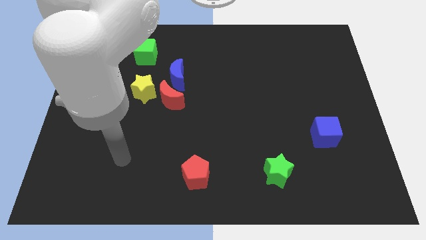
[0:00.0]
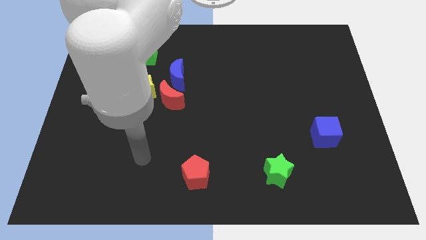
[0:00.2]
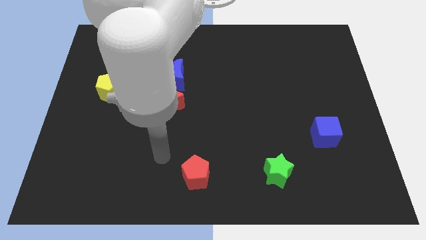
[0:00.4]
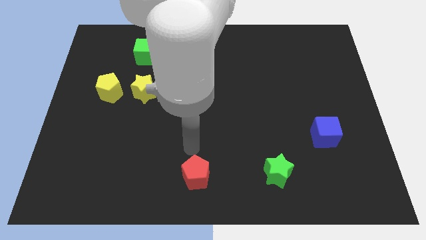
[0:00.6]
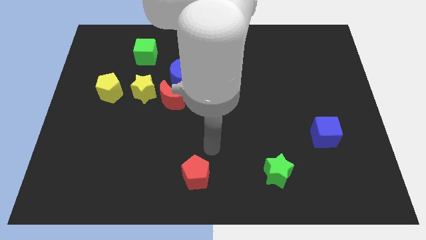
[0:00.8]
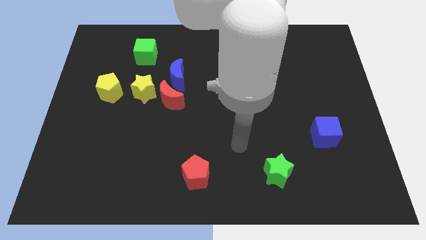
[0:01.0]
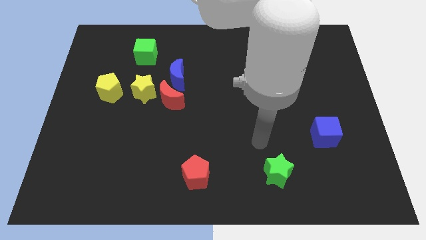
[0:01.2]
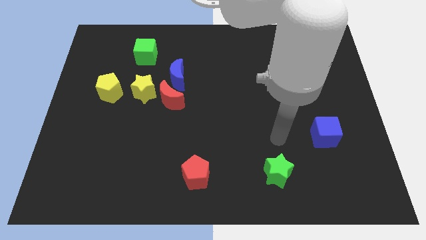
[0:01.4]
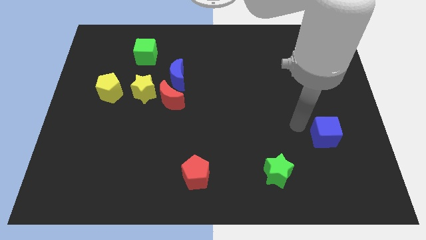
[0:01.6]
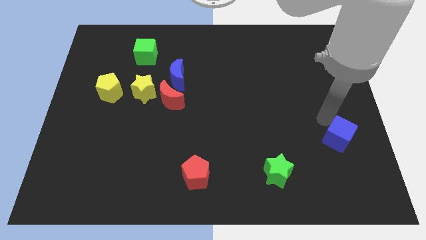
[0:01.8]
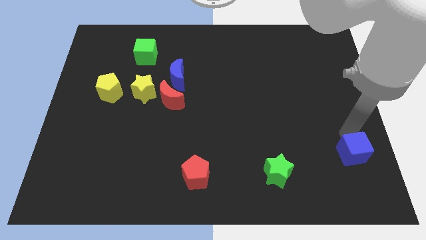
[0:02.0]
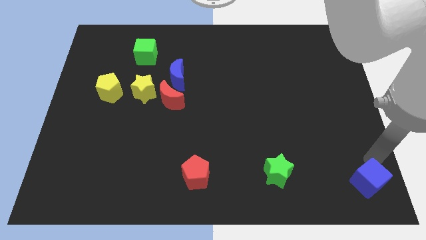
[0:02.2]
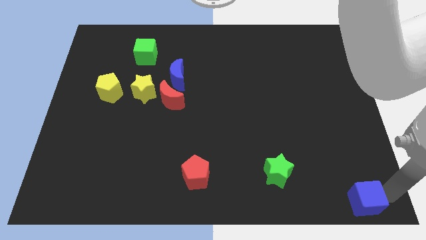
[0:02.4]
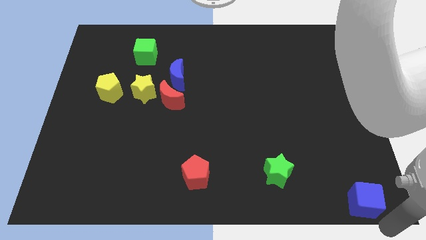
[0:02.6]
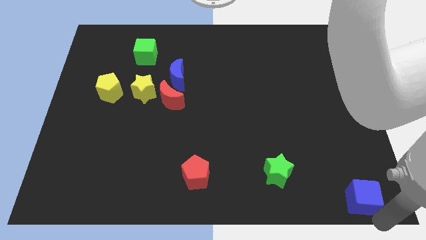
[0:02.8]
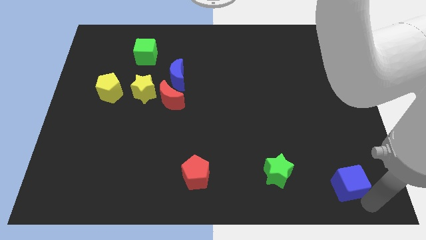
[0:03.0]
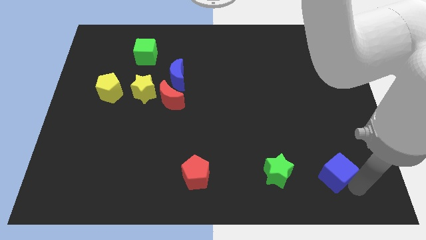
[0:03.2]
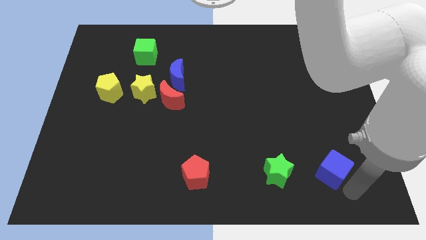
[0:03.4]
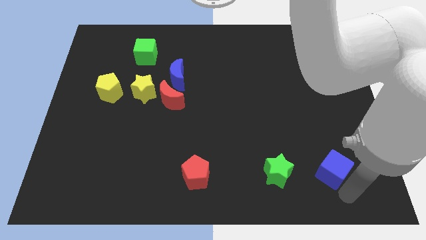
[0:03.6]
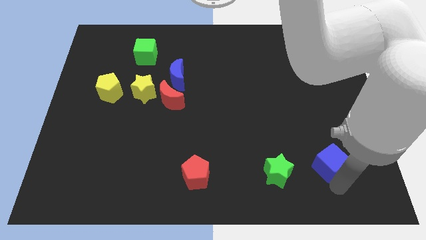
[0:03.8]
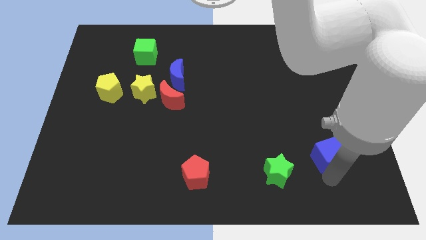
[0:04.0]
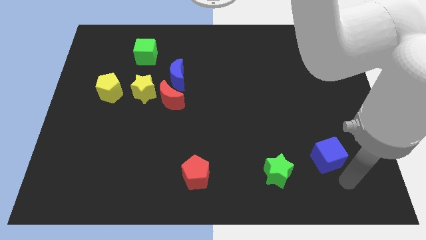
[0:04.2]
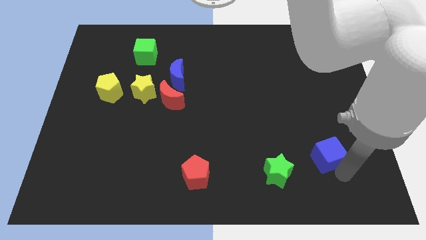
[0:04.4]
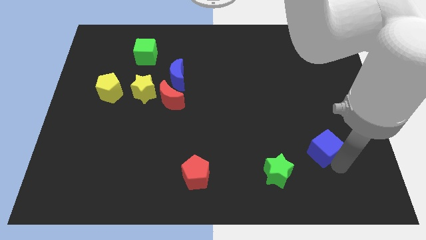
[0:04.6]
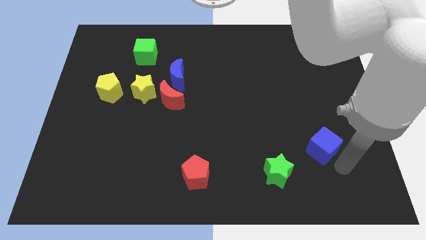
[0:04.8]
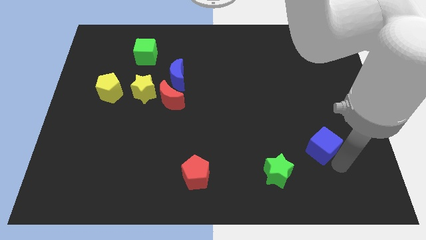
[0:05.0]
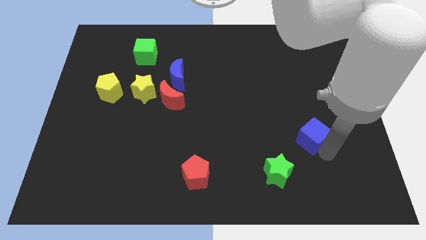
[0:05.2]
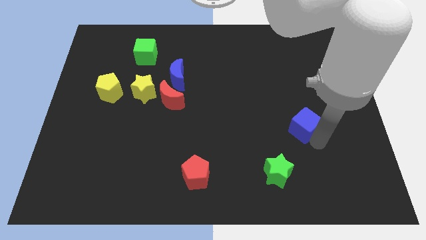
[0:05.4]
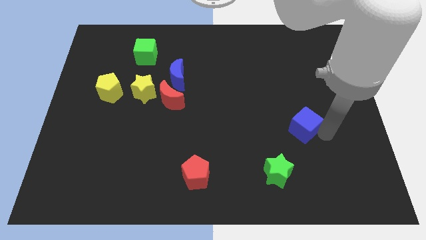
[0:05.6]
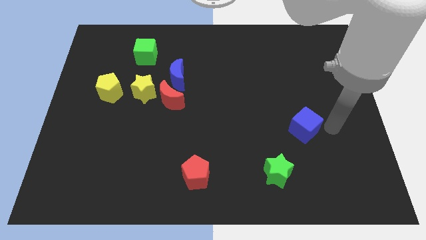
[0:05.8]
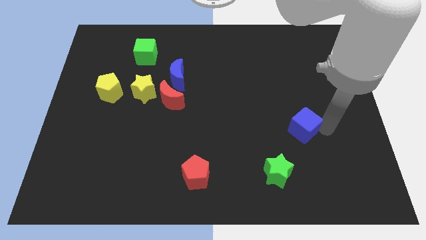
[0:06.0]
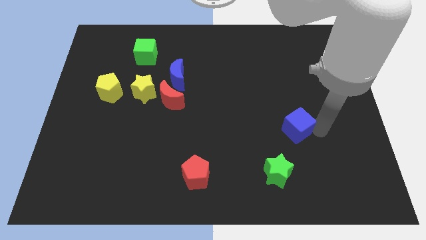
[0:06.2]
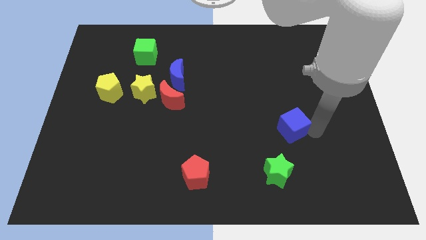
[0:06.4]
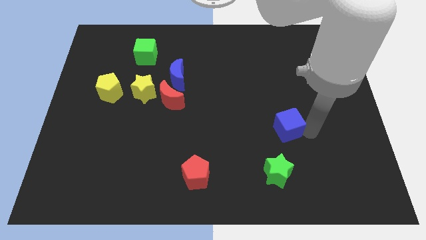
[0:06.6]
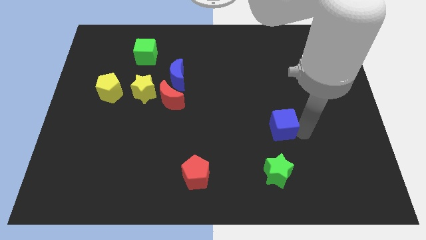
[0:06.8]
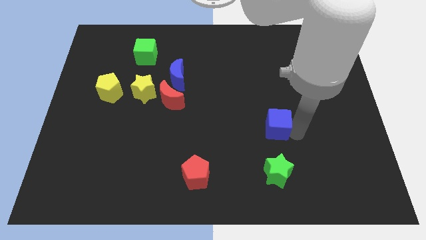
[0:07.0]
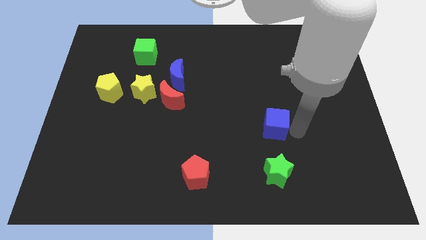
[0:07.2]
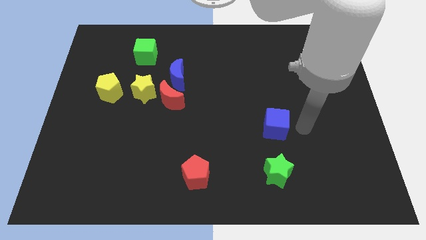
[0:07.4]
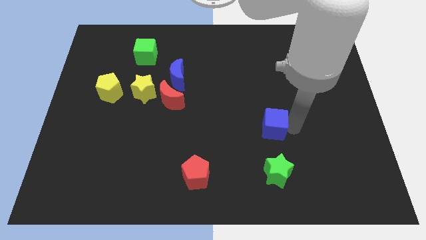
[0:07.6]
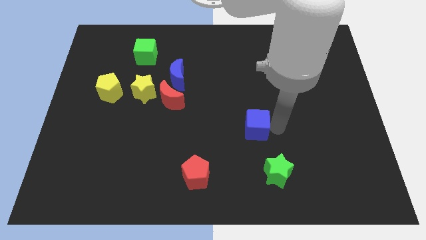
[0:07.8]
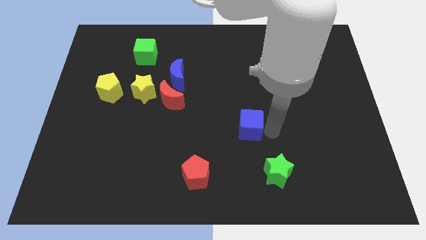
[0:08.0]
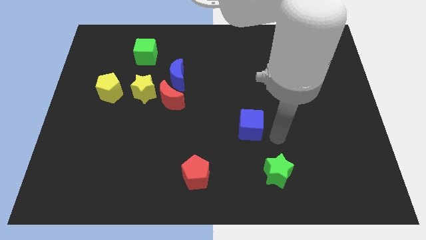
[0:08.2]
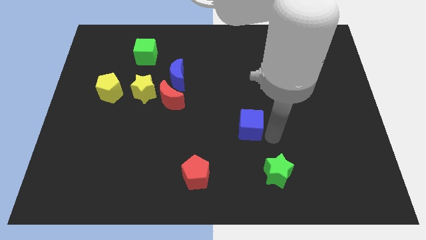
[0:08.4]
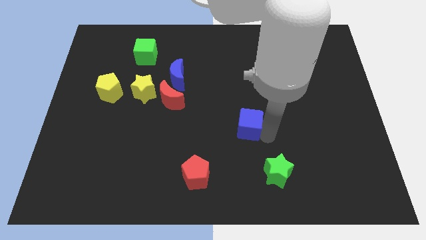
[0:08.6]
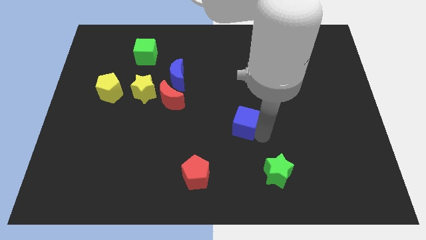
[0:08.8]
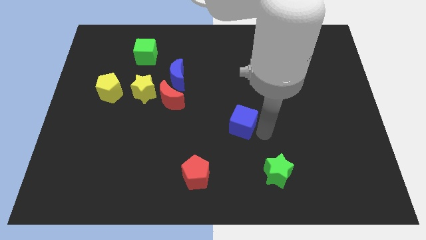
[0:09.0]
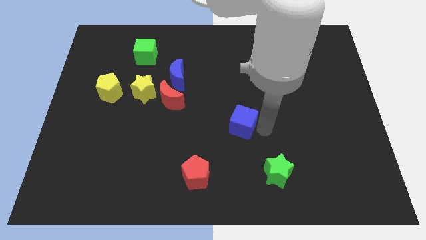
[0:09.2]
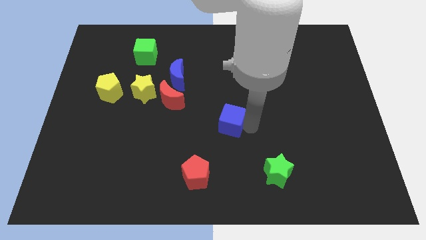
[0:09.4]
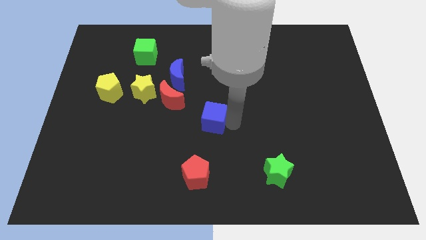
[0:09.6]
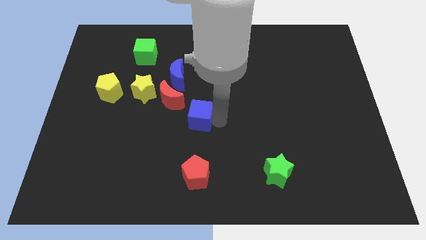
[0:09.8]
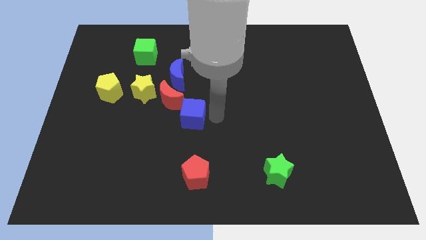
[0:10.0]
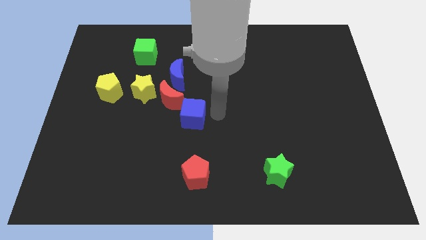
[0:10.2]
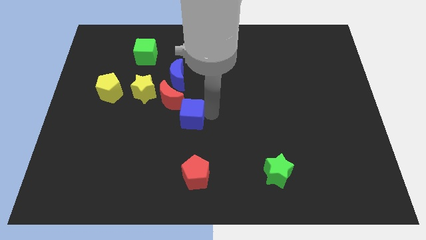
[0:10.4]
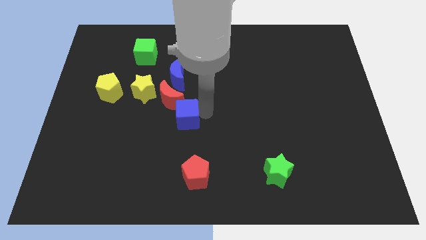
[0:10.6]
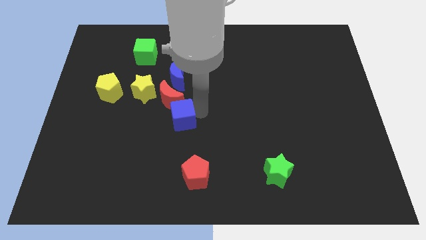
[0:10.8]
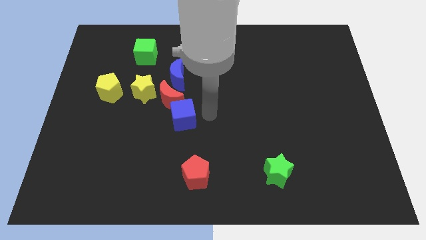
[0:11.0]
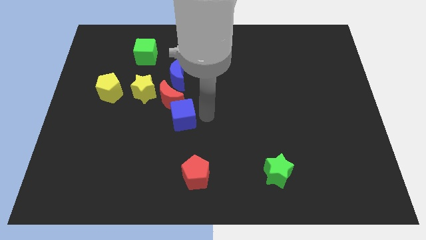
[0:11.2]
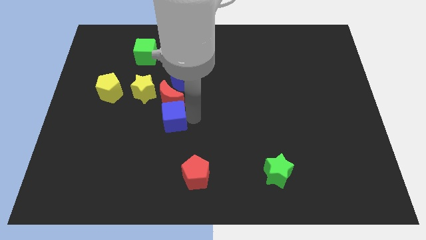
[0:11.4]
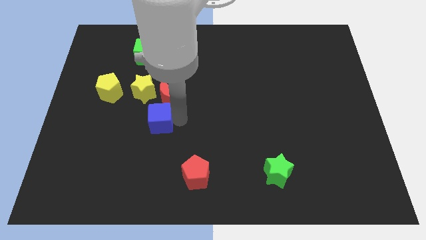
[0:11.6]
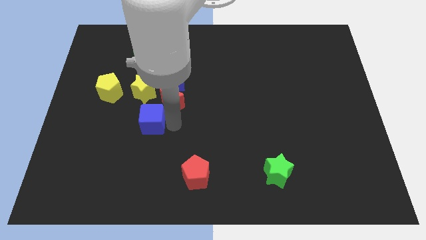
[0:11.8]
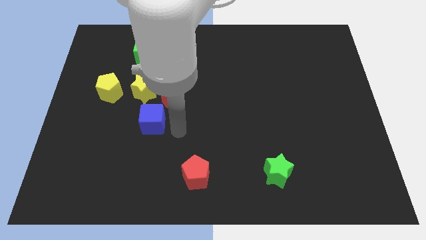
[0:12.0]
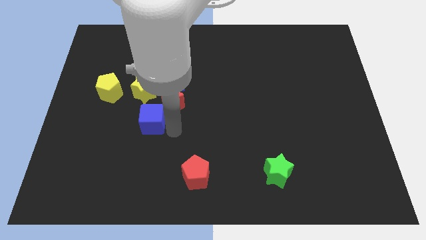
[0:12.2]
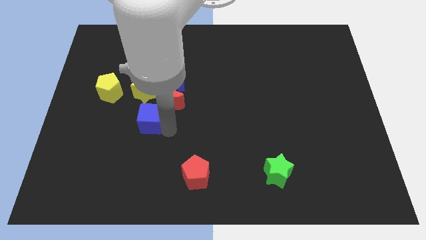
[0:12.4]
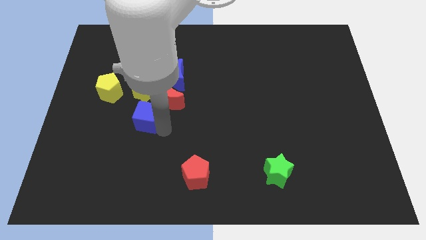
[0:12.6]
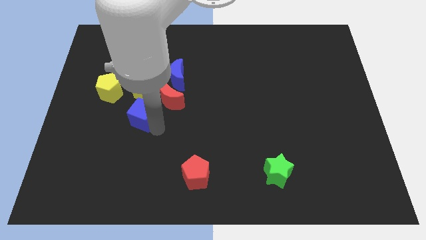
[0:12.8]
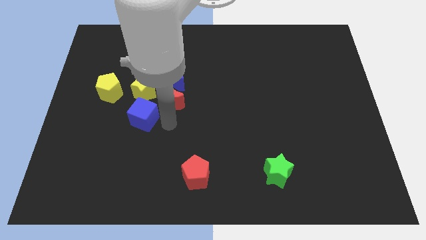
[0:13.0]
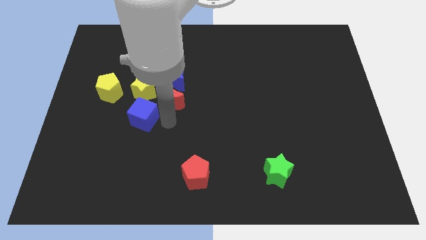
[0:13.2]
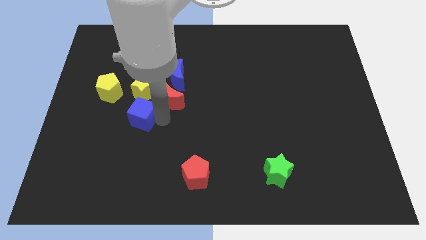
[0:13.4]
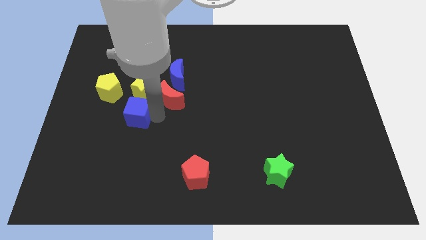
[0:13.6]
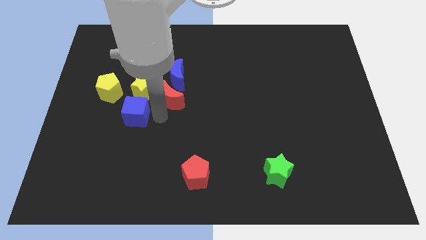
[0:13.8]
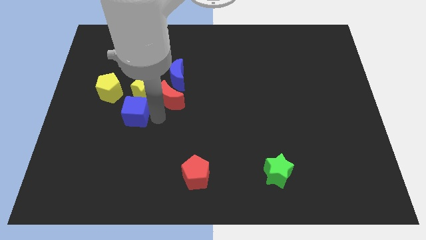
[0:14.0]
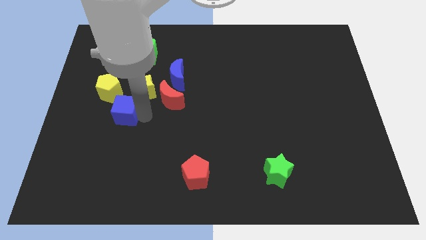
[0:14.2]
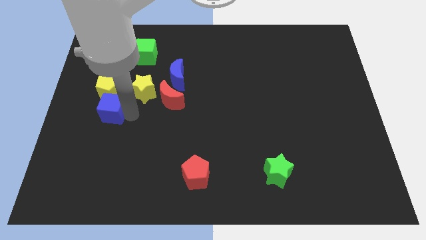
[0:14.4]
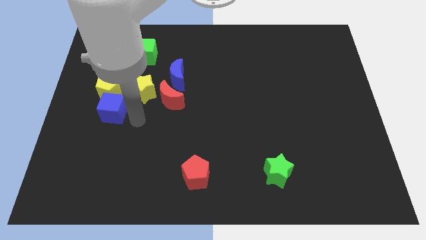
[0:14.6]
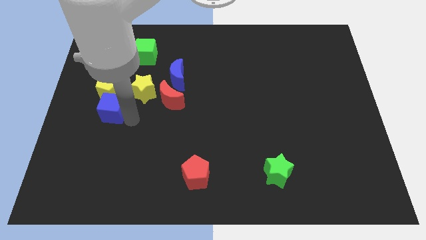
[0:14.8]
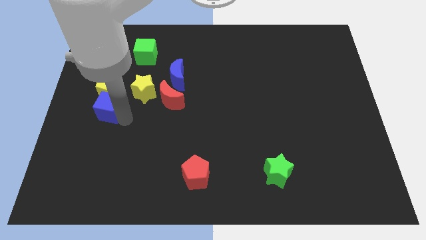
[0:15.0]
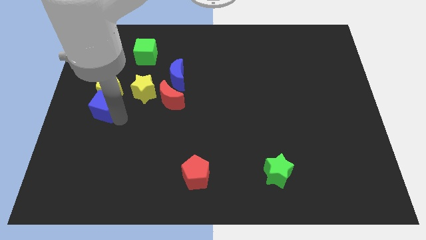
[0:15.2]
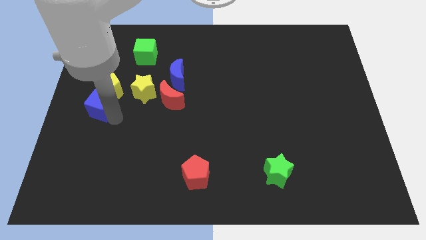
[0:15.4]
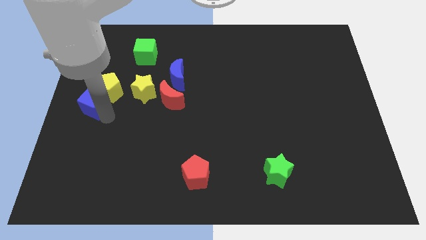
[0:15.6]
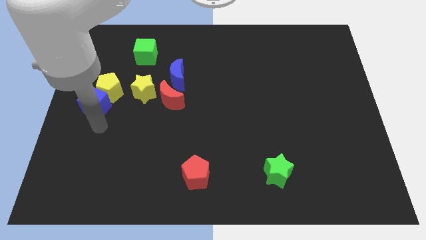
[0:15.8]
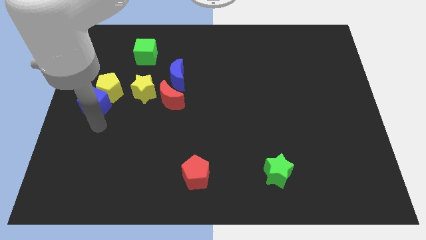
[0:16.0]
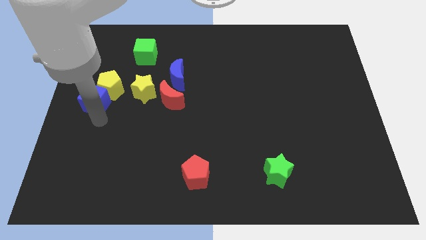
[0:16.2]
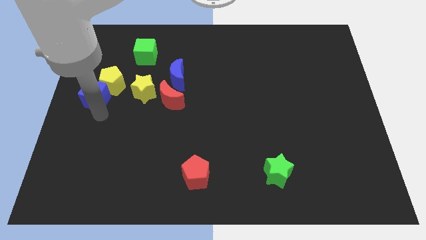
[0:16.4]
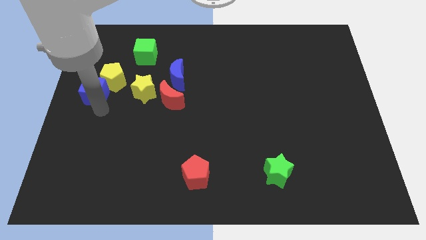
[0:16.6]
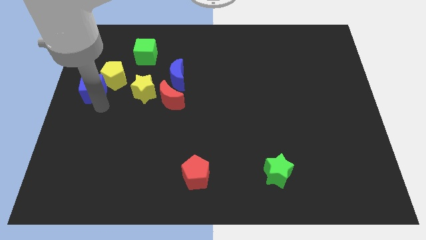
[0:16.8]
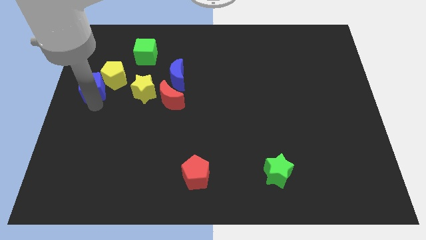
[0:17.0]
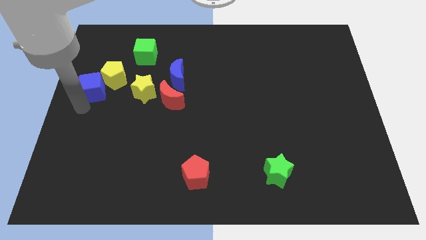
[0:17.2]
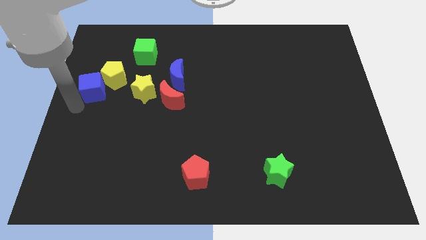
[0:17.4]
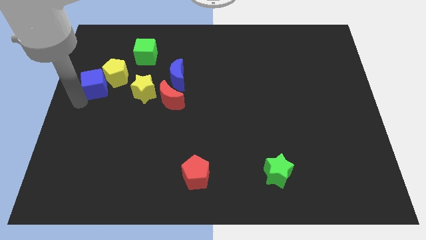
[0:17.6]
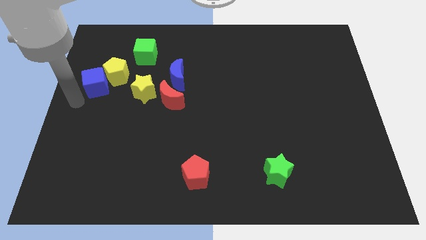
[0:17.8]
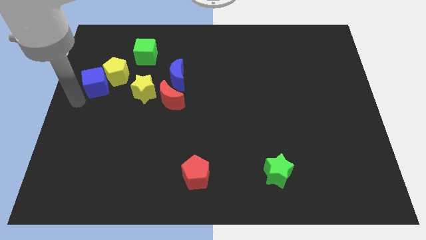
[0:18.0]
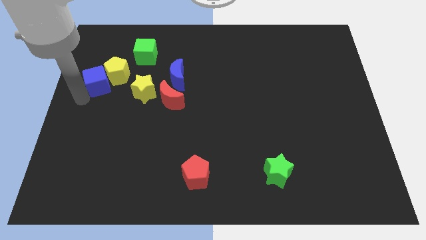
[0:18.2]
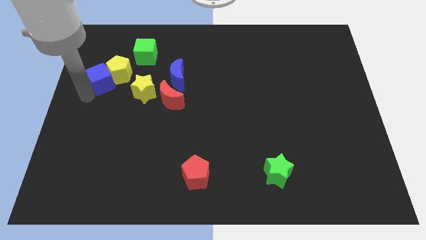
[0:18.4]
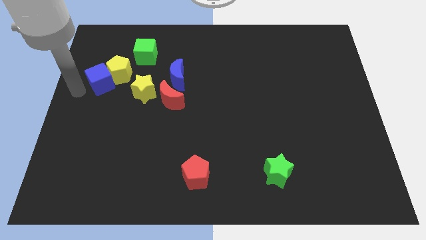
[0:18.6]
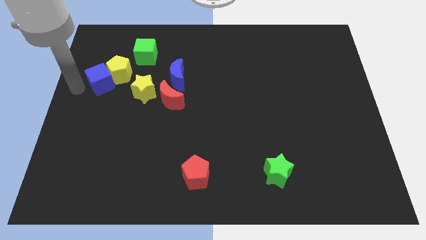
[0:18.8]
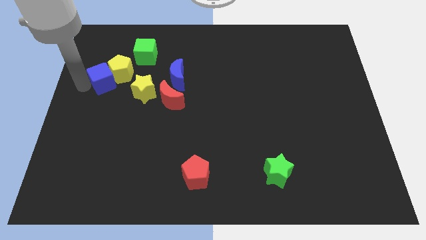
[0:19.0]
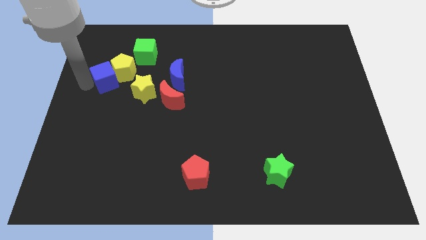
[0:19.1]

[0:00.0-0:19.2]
move the blue cube to the top left of the yellow star
